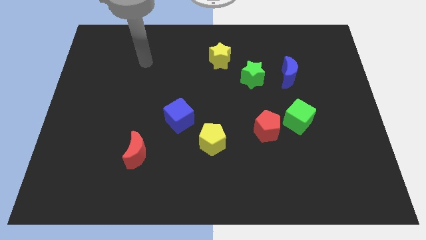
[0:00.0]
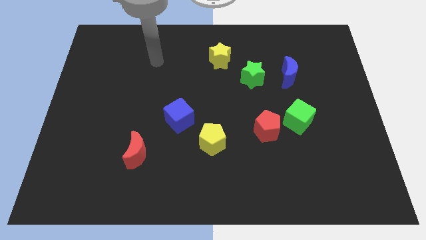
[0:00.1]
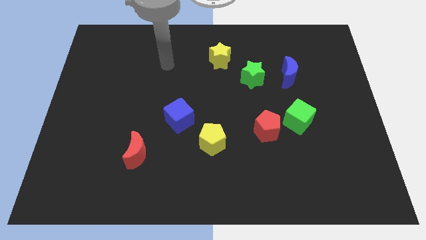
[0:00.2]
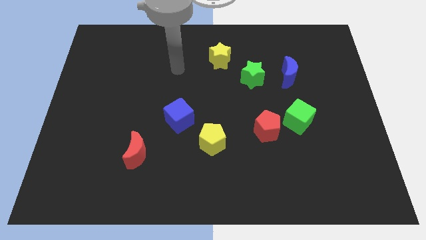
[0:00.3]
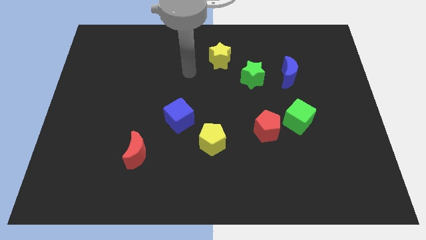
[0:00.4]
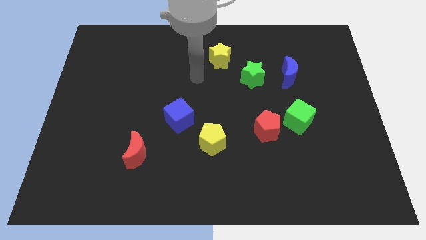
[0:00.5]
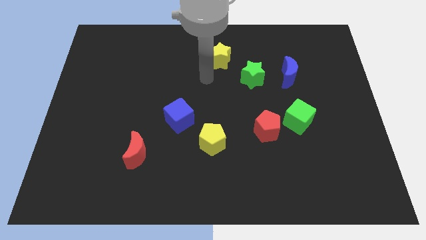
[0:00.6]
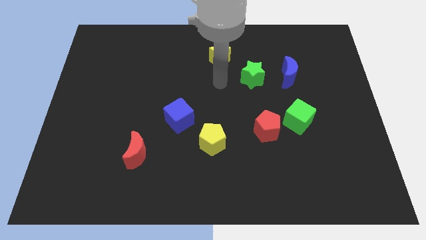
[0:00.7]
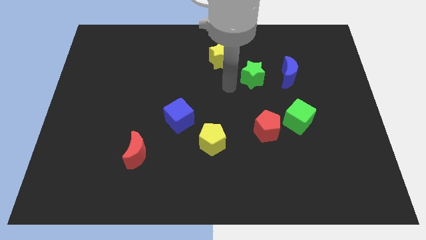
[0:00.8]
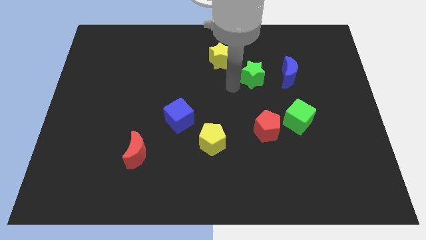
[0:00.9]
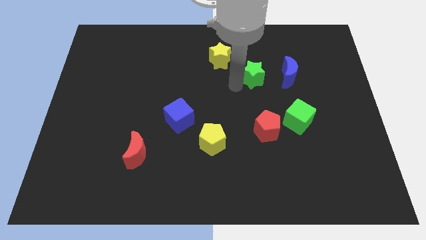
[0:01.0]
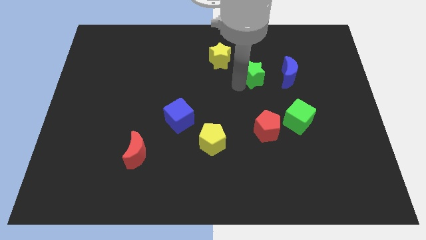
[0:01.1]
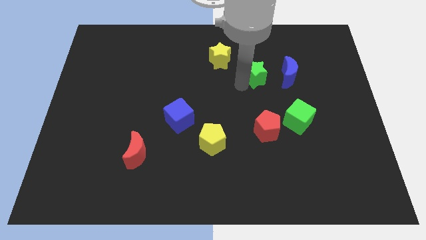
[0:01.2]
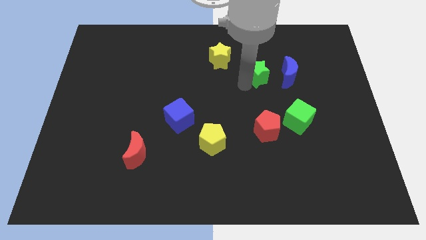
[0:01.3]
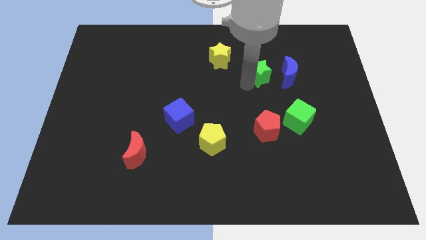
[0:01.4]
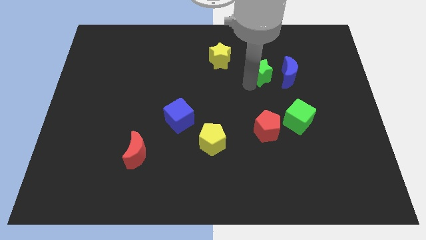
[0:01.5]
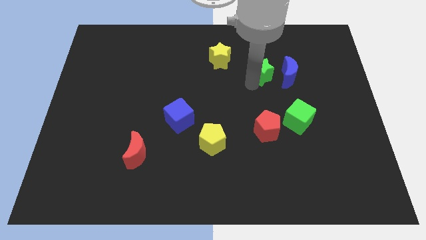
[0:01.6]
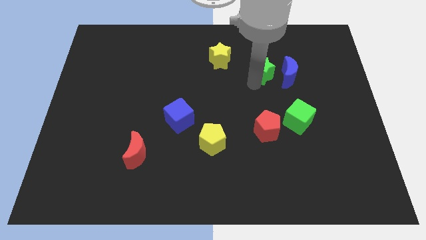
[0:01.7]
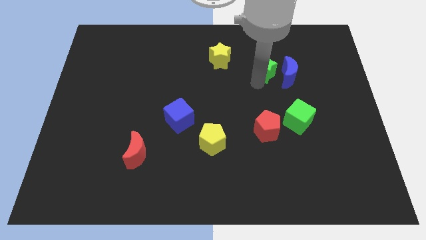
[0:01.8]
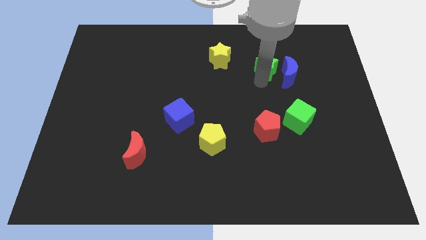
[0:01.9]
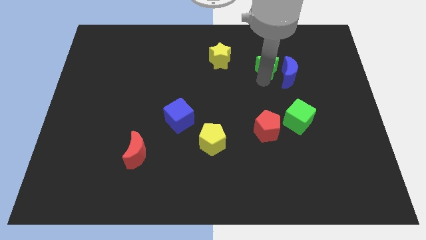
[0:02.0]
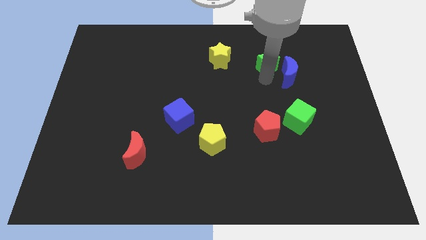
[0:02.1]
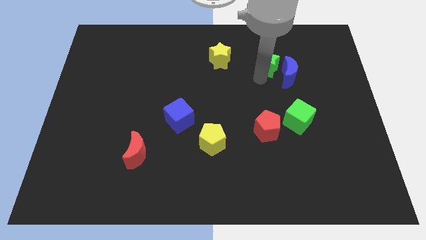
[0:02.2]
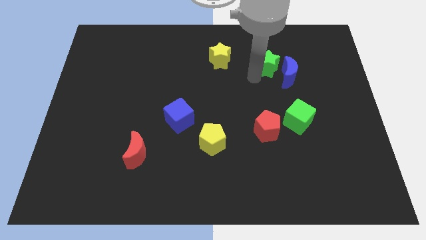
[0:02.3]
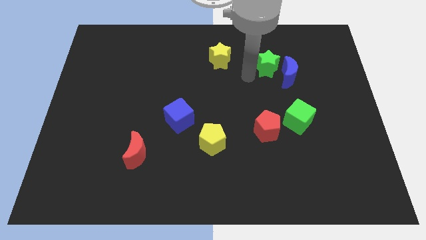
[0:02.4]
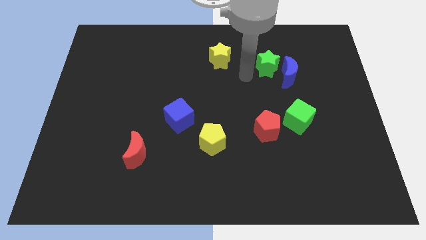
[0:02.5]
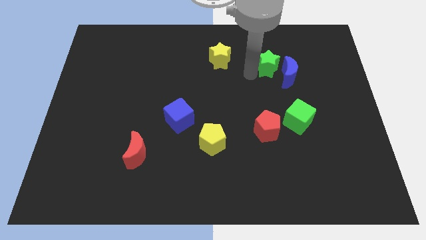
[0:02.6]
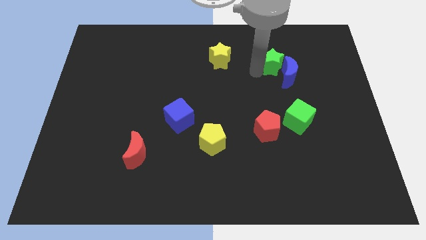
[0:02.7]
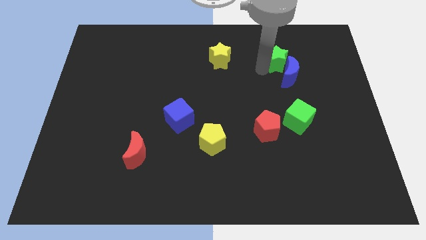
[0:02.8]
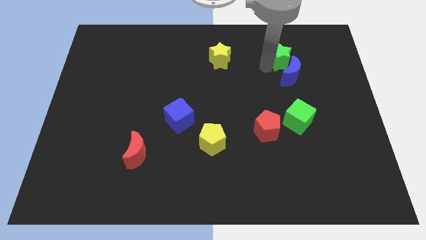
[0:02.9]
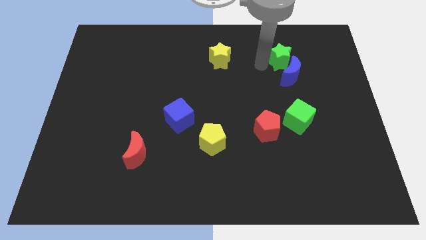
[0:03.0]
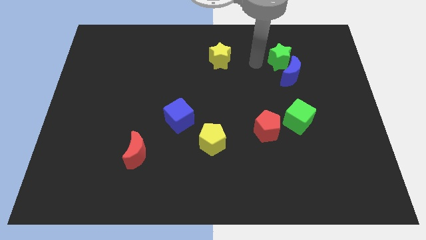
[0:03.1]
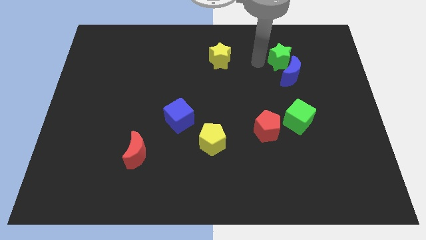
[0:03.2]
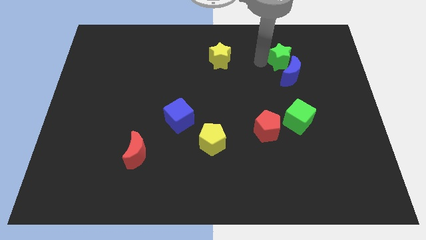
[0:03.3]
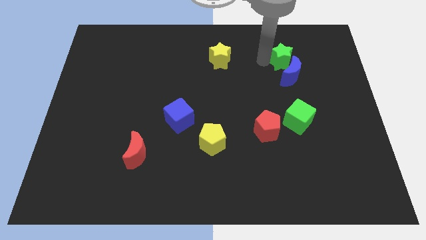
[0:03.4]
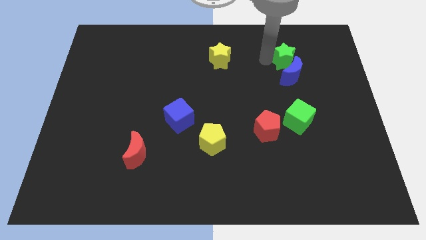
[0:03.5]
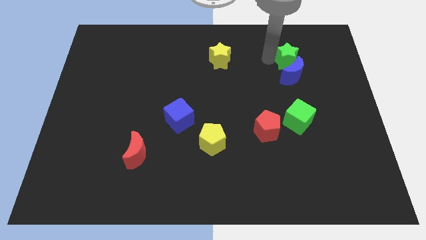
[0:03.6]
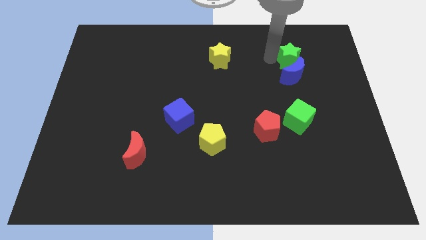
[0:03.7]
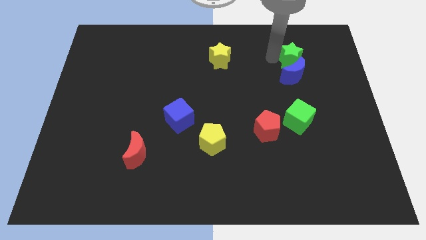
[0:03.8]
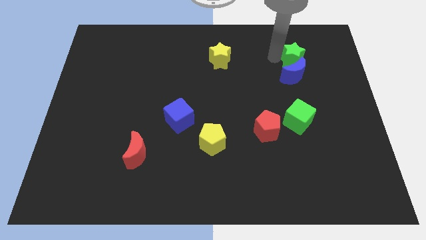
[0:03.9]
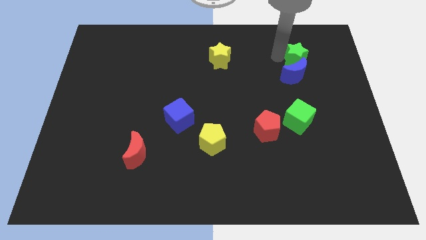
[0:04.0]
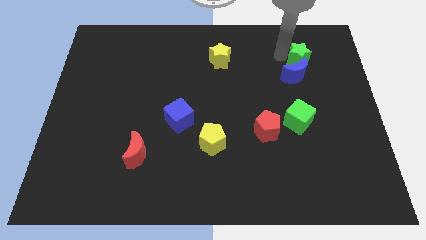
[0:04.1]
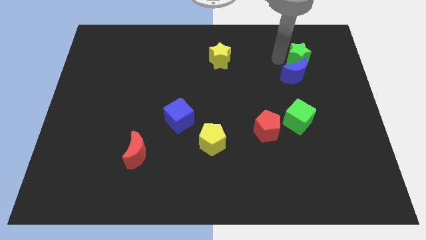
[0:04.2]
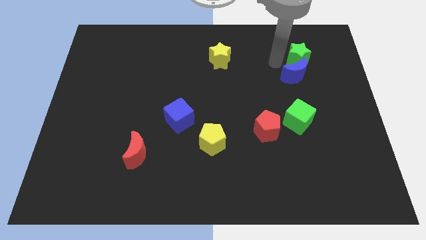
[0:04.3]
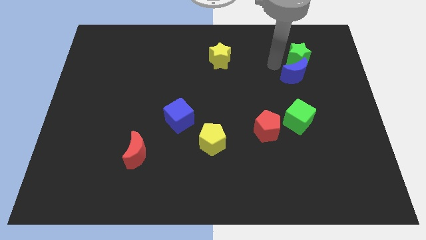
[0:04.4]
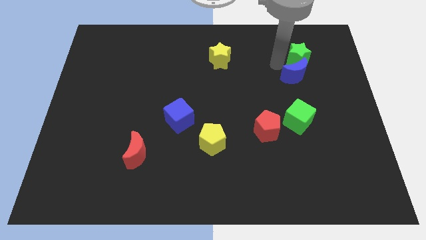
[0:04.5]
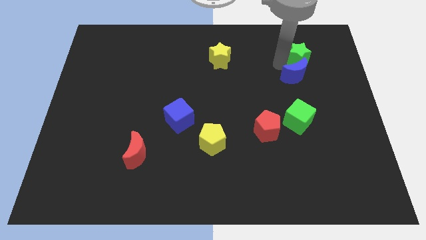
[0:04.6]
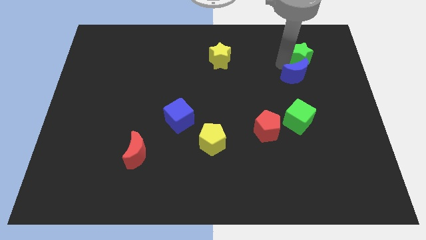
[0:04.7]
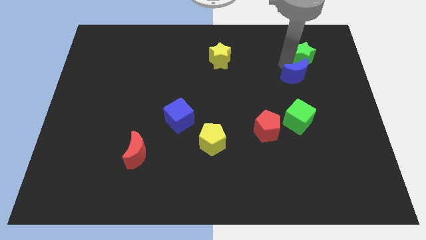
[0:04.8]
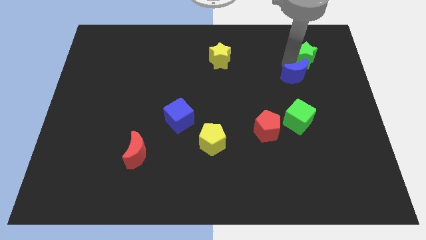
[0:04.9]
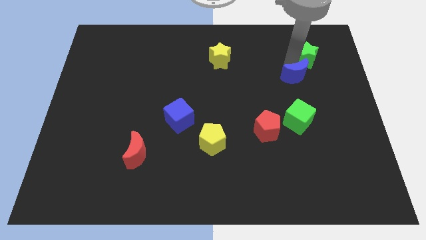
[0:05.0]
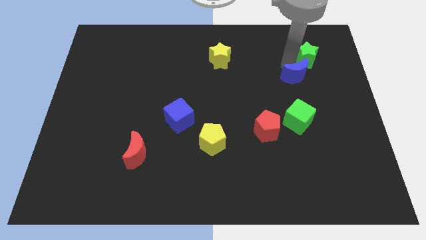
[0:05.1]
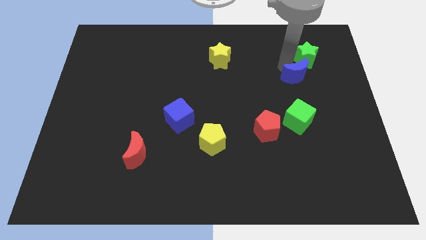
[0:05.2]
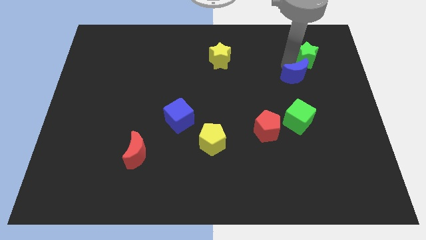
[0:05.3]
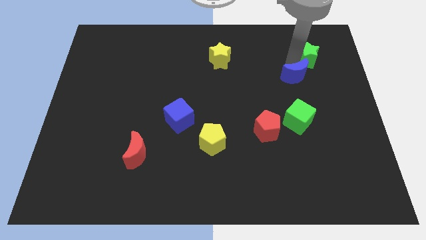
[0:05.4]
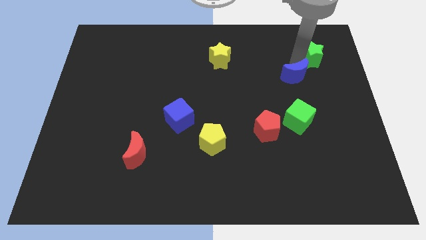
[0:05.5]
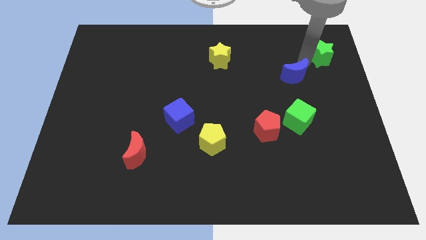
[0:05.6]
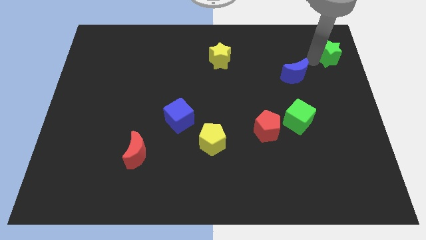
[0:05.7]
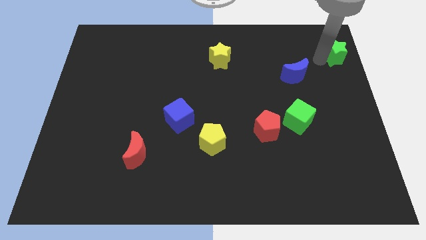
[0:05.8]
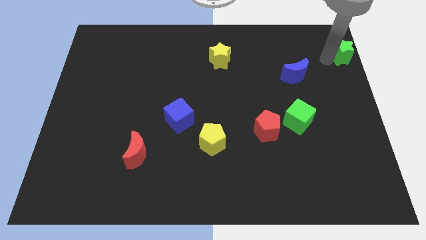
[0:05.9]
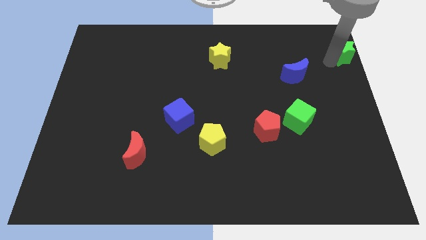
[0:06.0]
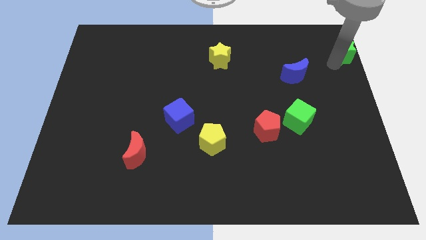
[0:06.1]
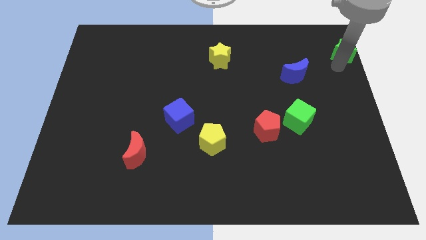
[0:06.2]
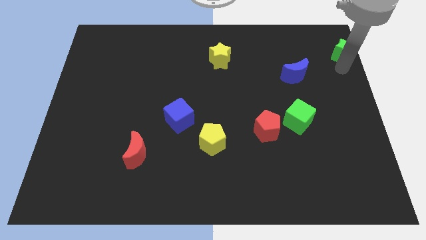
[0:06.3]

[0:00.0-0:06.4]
push the green star to the top right of the board

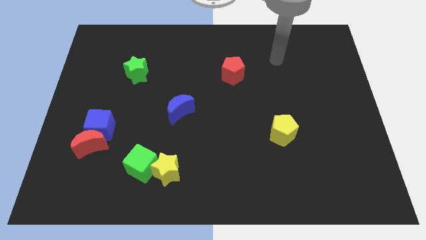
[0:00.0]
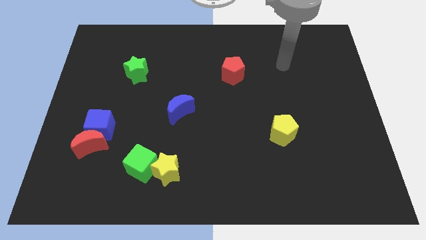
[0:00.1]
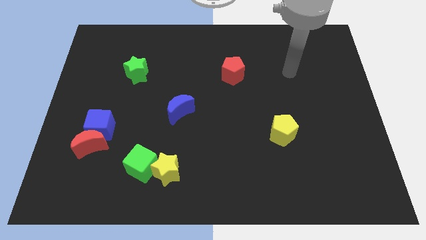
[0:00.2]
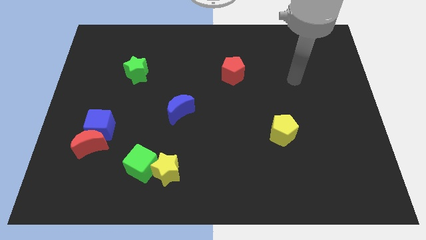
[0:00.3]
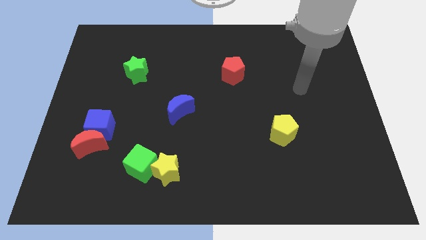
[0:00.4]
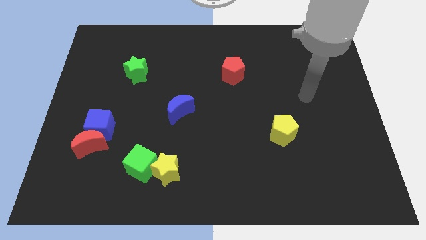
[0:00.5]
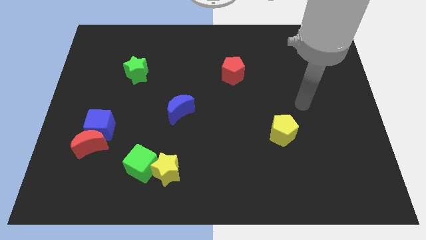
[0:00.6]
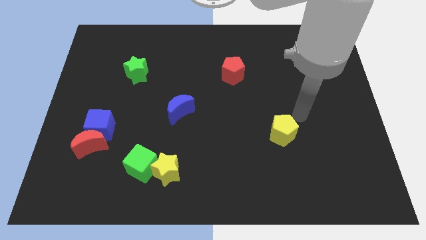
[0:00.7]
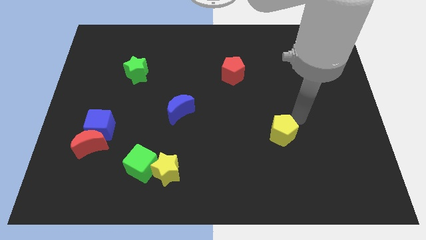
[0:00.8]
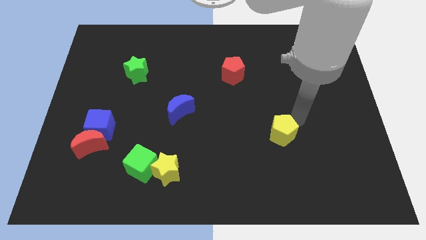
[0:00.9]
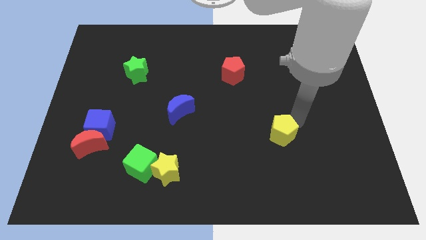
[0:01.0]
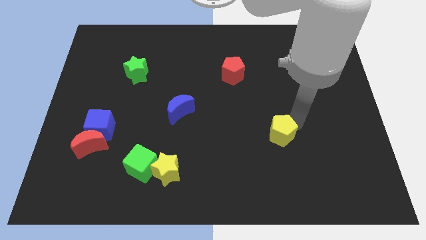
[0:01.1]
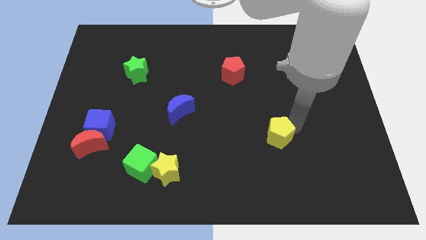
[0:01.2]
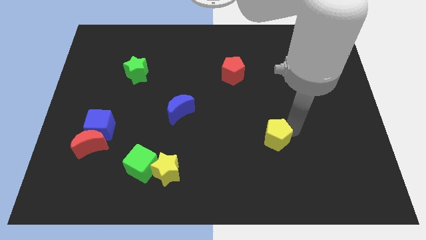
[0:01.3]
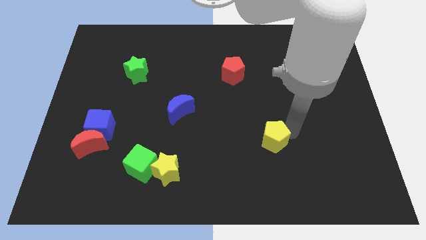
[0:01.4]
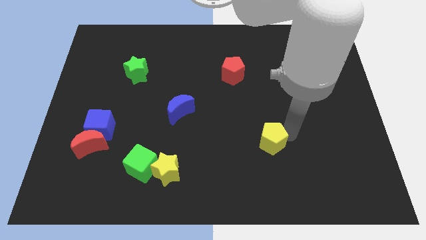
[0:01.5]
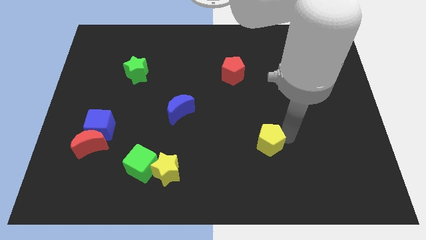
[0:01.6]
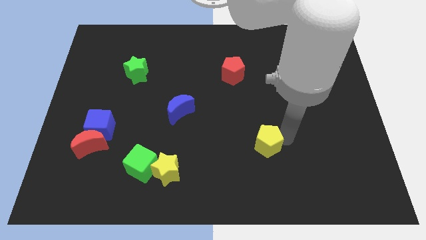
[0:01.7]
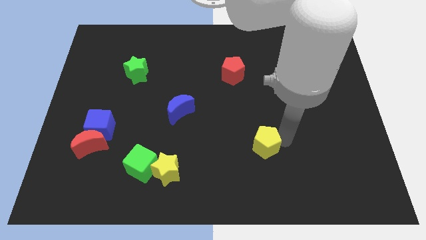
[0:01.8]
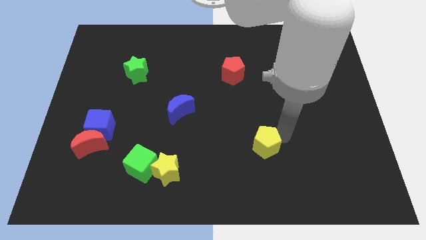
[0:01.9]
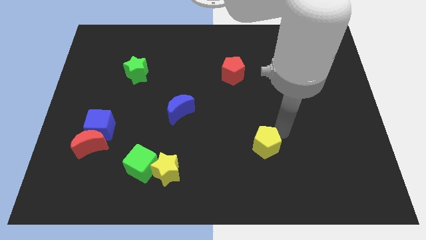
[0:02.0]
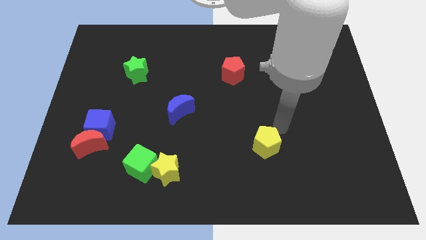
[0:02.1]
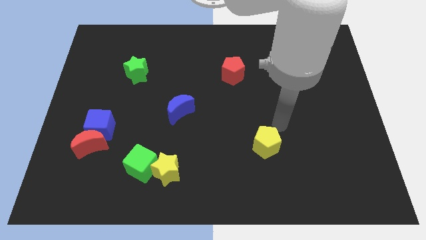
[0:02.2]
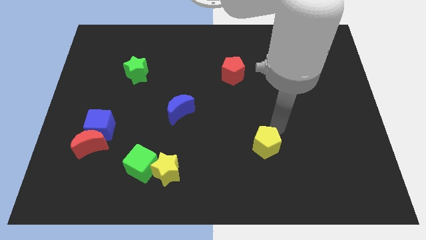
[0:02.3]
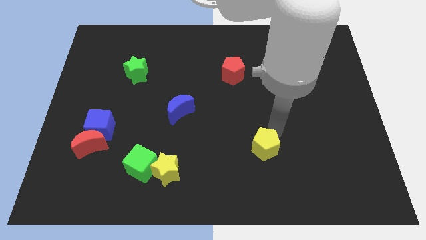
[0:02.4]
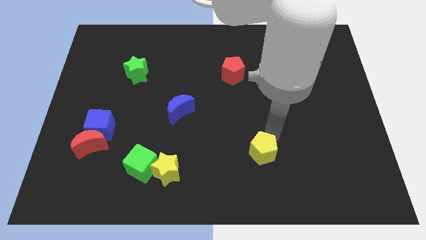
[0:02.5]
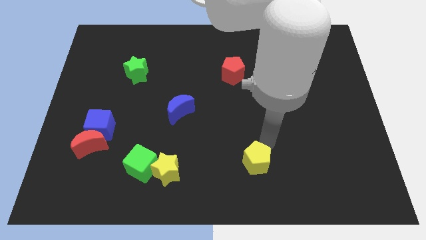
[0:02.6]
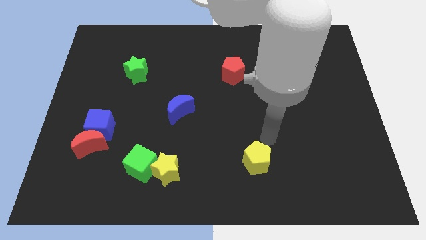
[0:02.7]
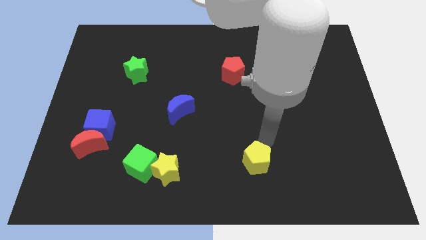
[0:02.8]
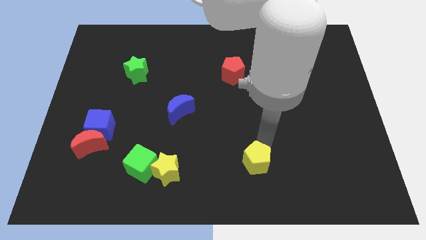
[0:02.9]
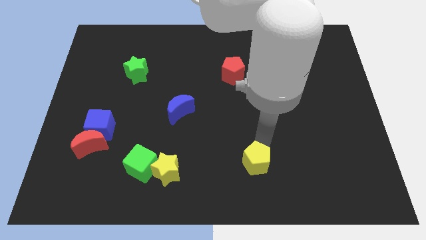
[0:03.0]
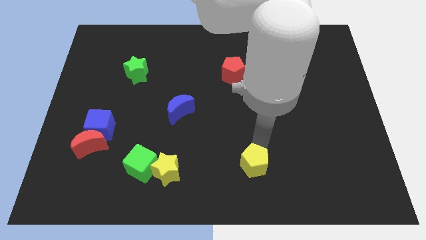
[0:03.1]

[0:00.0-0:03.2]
put the yellow pentagon to the bottom side
